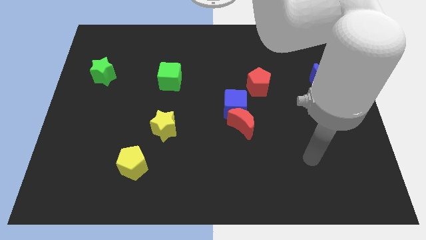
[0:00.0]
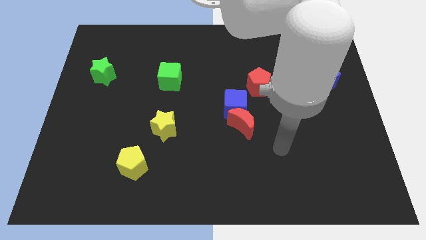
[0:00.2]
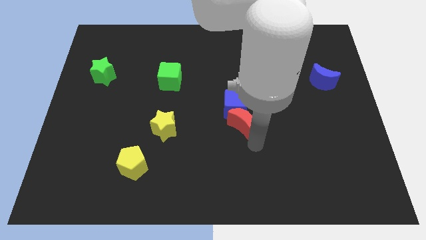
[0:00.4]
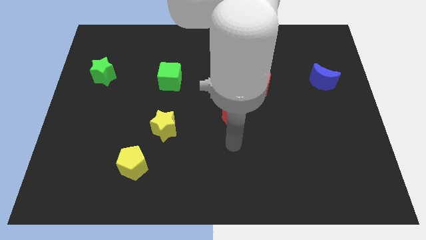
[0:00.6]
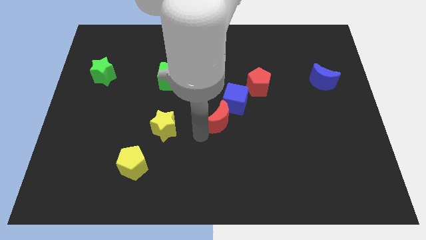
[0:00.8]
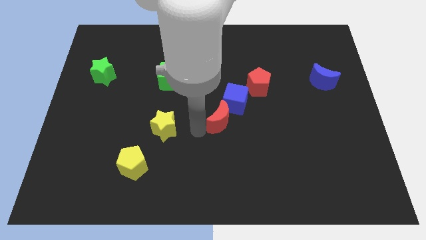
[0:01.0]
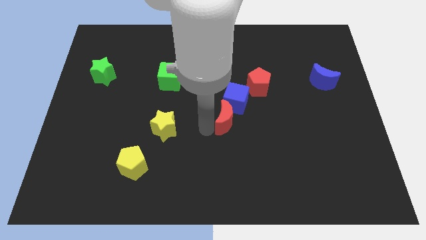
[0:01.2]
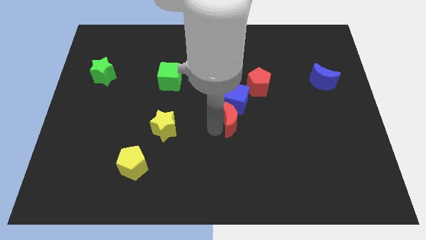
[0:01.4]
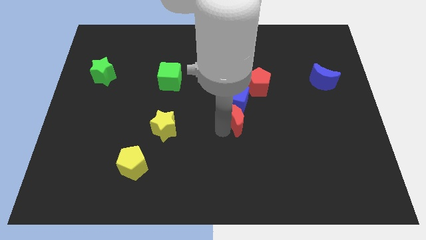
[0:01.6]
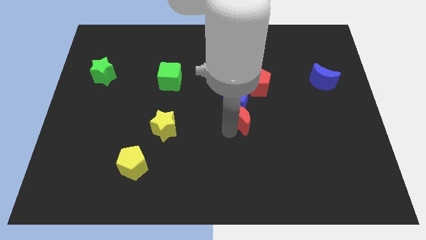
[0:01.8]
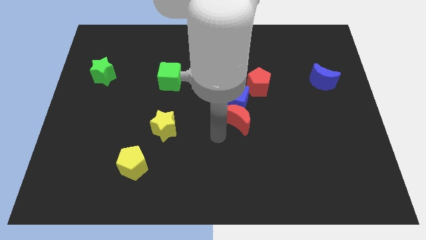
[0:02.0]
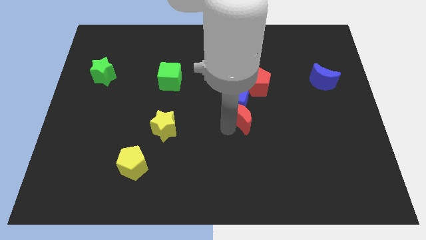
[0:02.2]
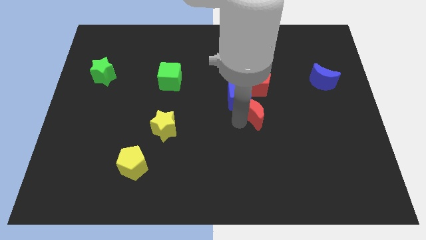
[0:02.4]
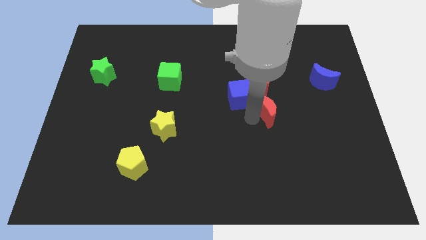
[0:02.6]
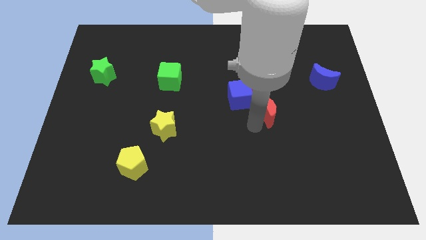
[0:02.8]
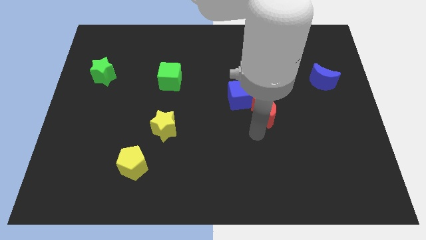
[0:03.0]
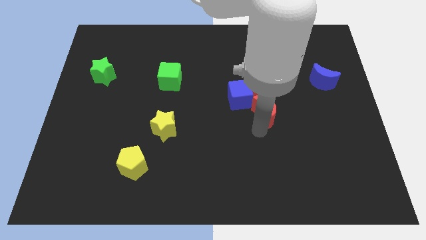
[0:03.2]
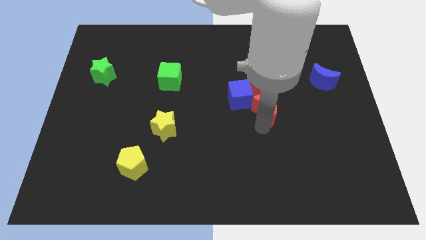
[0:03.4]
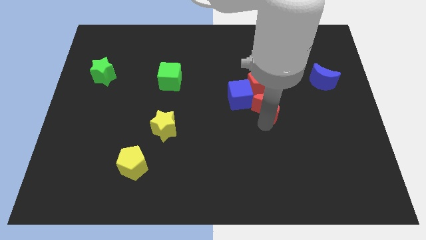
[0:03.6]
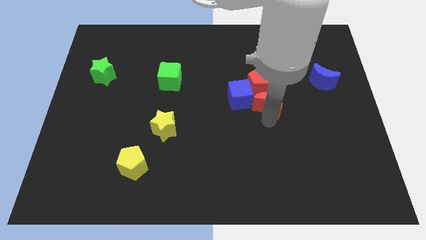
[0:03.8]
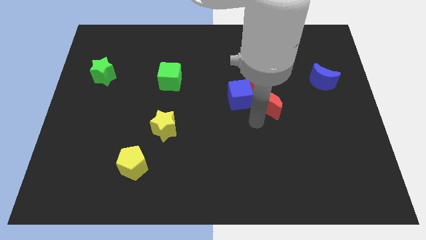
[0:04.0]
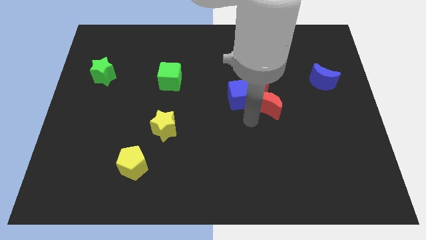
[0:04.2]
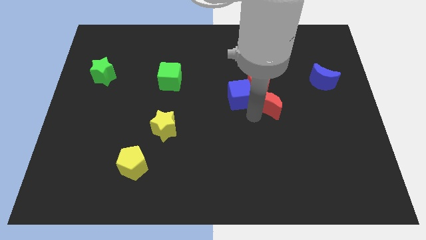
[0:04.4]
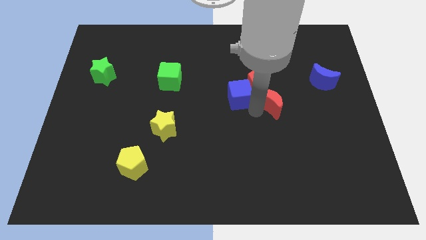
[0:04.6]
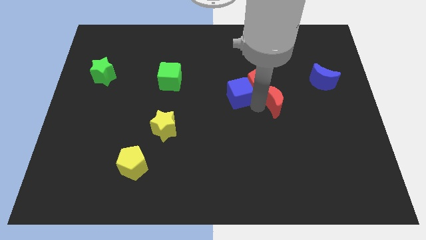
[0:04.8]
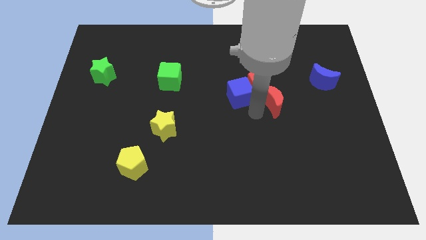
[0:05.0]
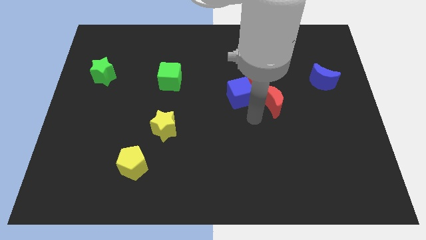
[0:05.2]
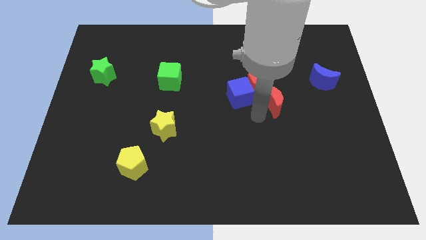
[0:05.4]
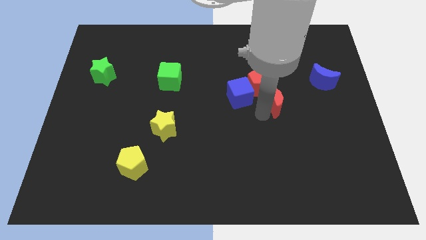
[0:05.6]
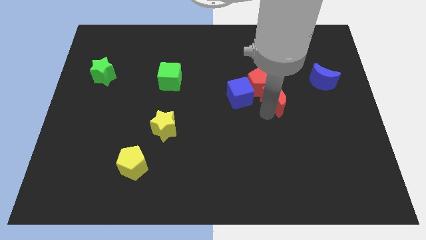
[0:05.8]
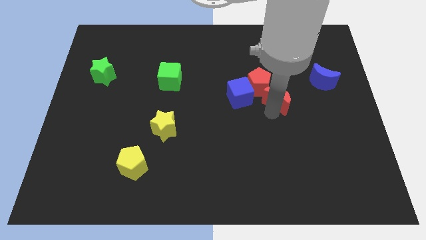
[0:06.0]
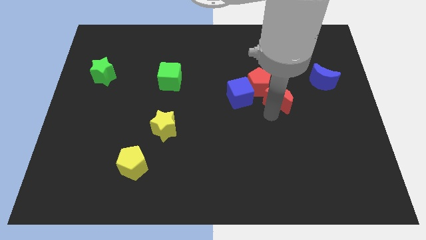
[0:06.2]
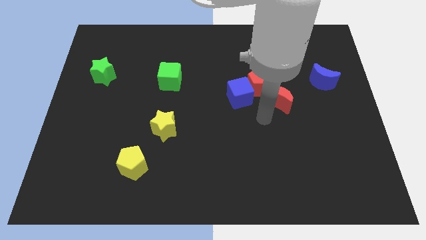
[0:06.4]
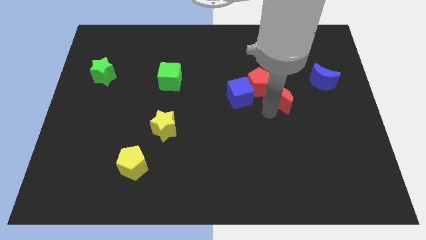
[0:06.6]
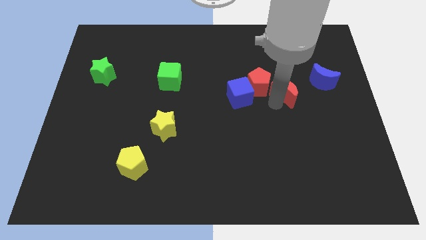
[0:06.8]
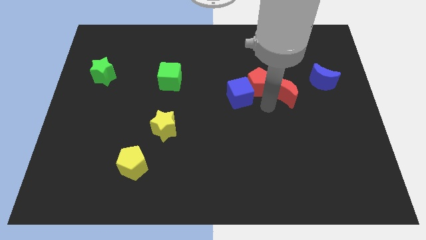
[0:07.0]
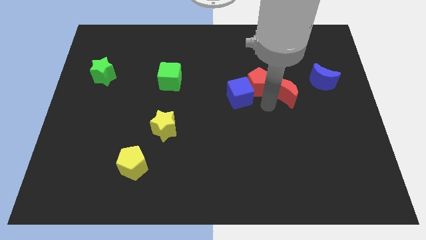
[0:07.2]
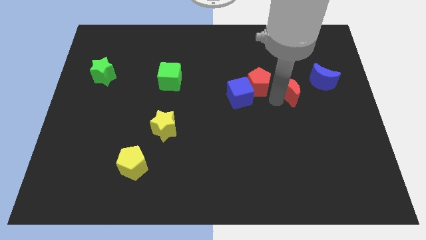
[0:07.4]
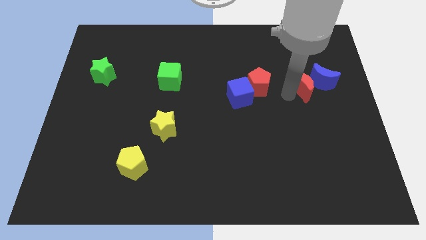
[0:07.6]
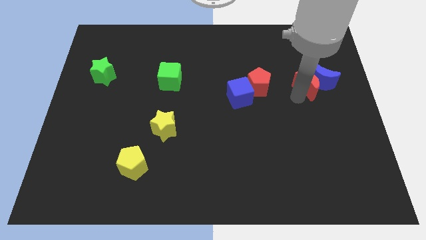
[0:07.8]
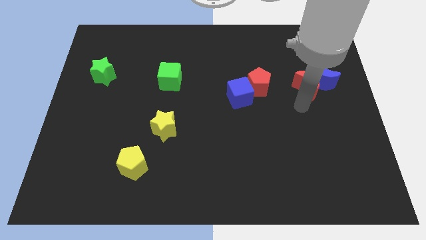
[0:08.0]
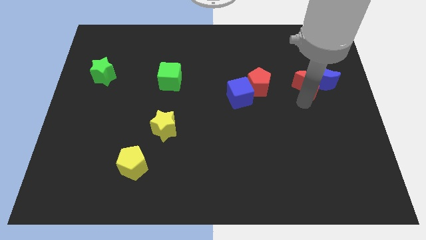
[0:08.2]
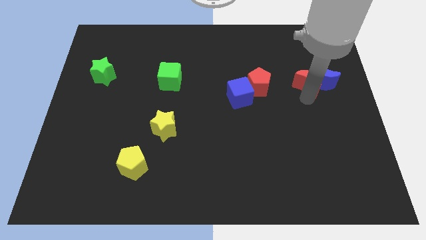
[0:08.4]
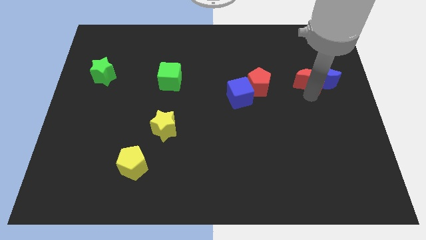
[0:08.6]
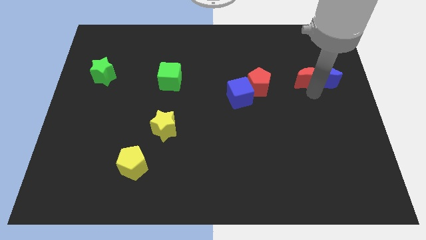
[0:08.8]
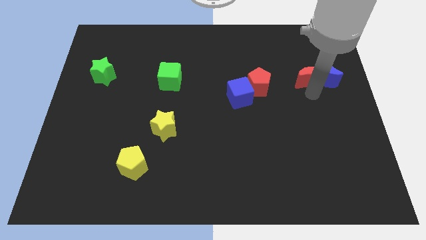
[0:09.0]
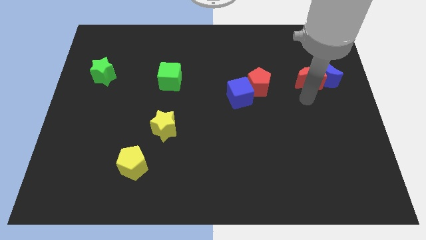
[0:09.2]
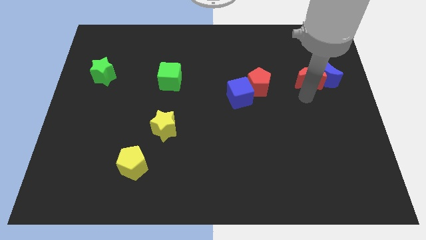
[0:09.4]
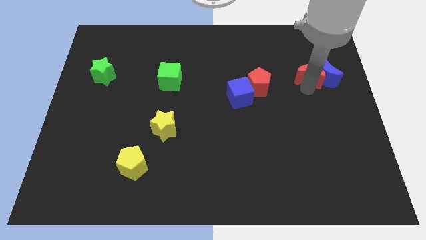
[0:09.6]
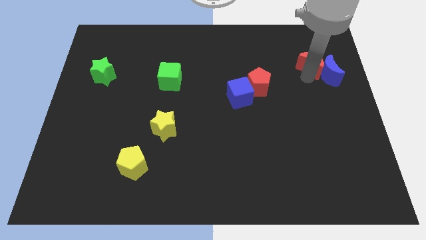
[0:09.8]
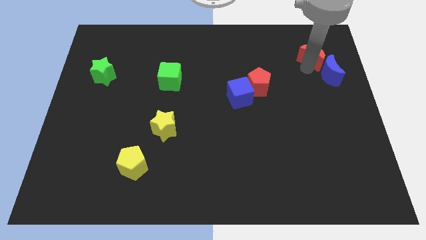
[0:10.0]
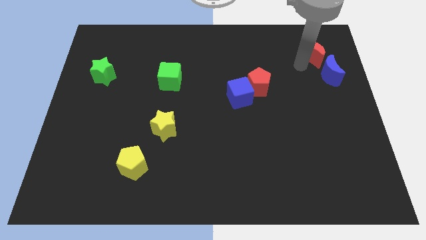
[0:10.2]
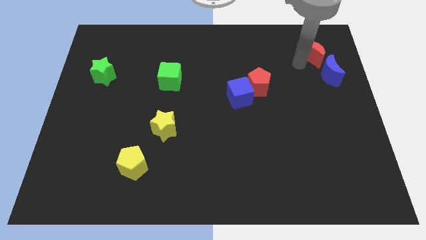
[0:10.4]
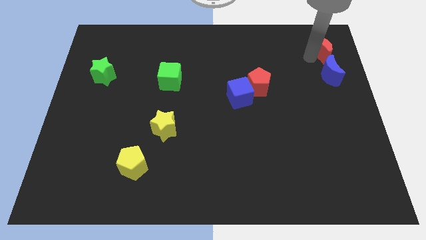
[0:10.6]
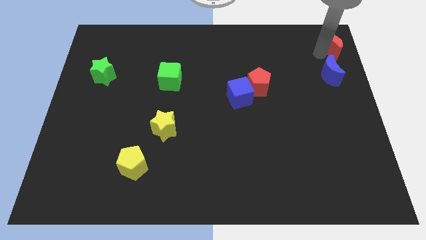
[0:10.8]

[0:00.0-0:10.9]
push the red moon to the top right of the board
